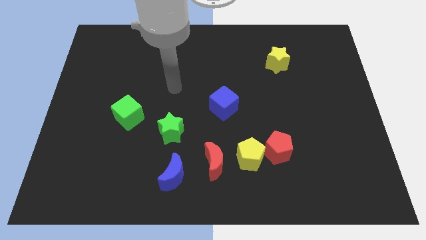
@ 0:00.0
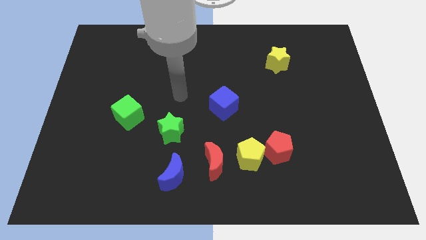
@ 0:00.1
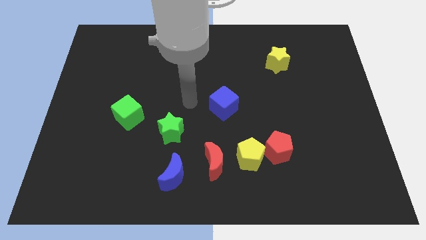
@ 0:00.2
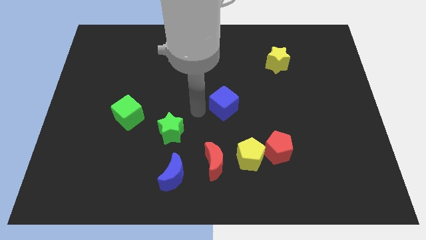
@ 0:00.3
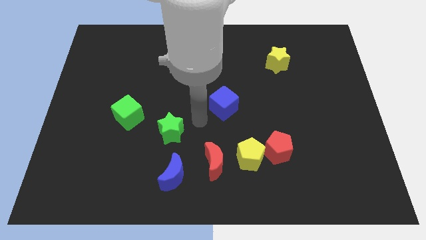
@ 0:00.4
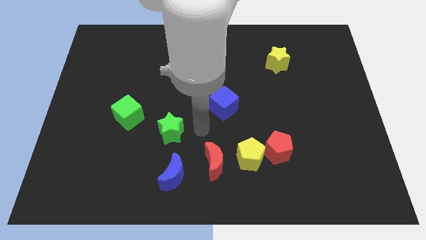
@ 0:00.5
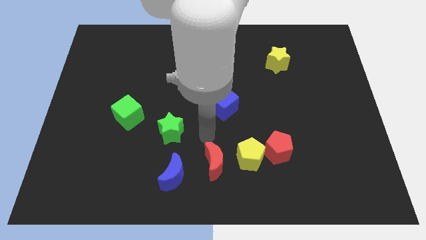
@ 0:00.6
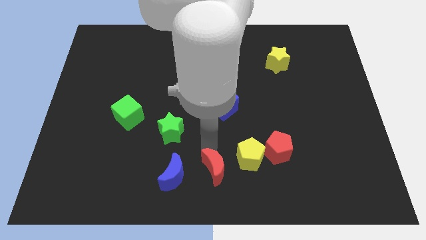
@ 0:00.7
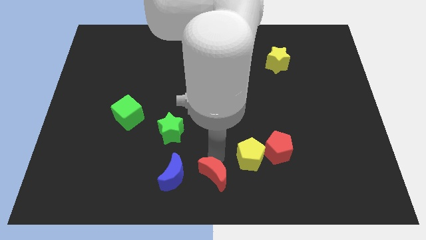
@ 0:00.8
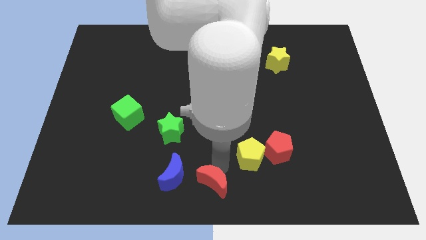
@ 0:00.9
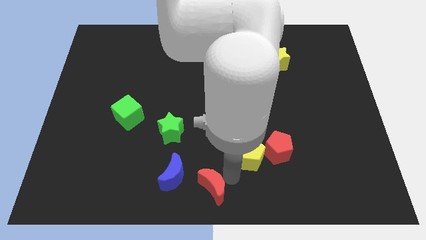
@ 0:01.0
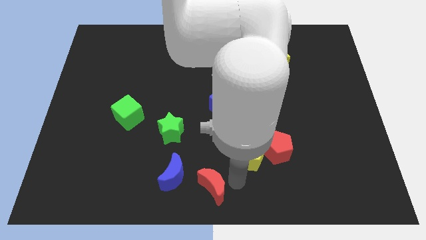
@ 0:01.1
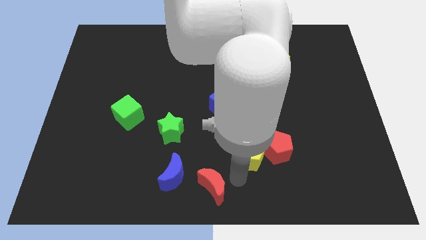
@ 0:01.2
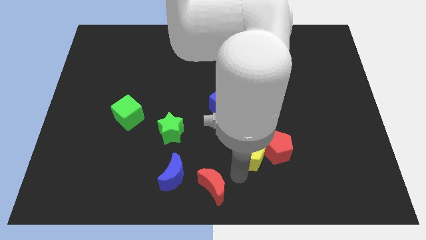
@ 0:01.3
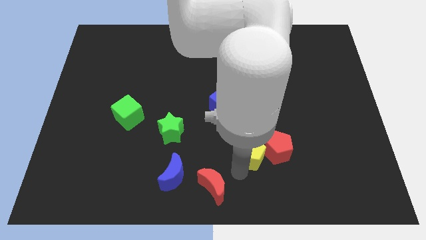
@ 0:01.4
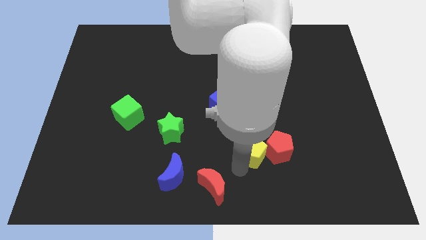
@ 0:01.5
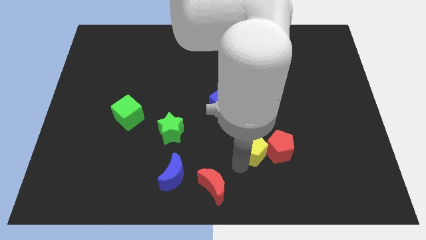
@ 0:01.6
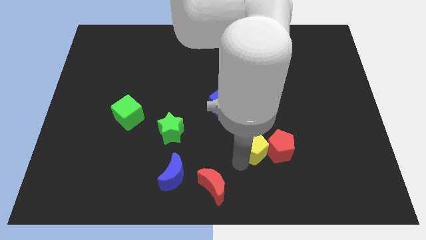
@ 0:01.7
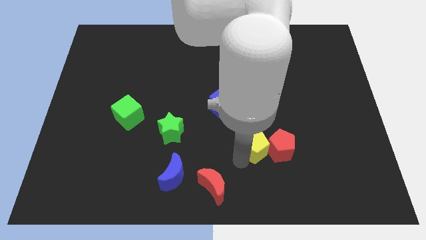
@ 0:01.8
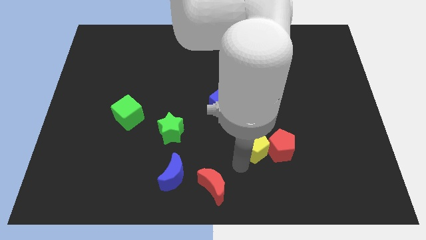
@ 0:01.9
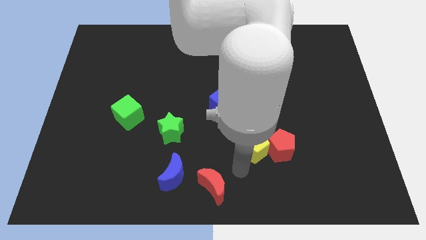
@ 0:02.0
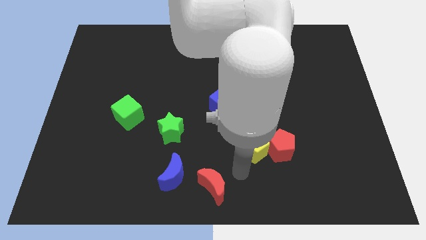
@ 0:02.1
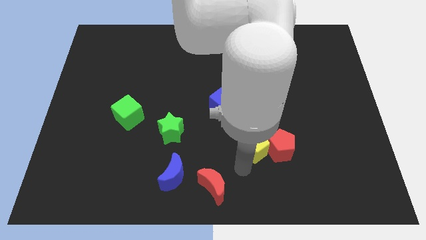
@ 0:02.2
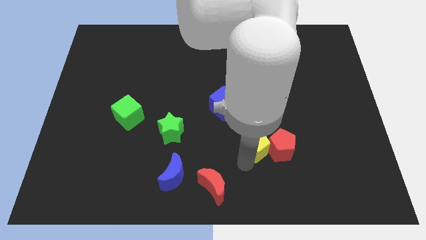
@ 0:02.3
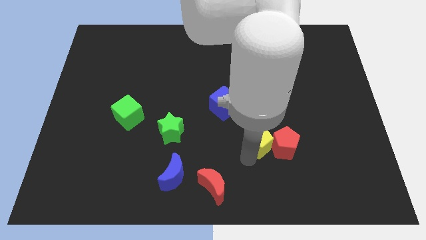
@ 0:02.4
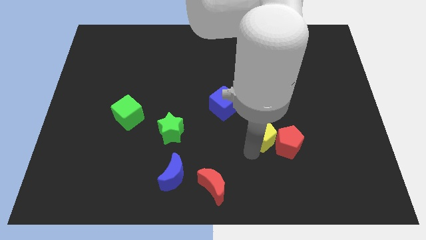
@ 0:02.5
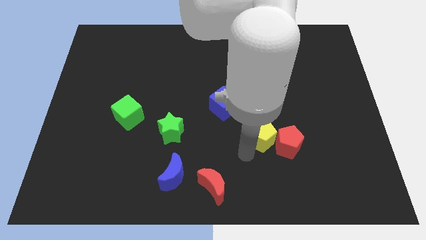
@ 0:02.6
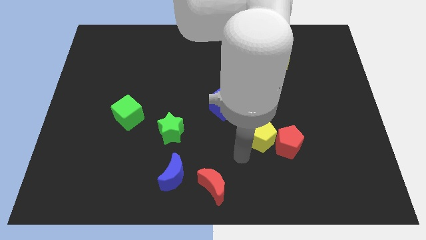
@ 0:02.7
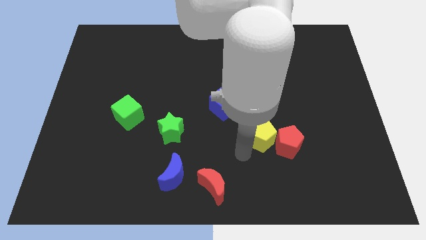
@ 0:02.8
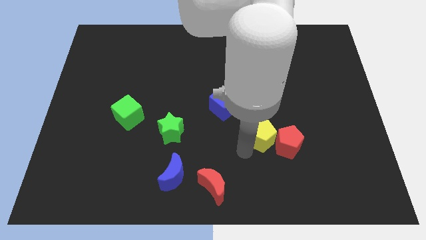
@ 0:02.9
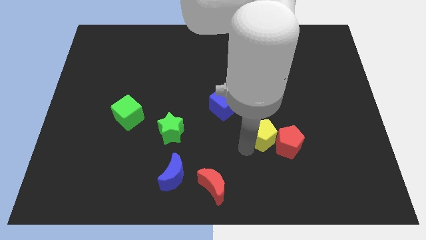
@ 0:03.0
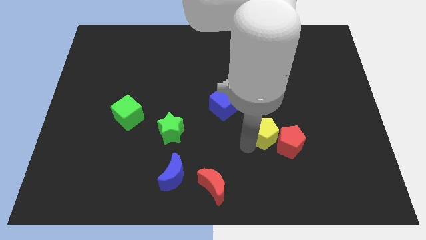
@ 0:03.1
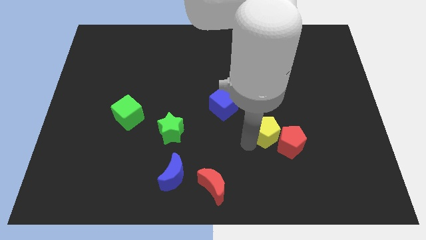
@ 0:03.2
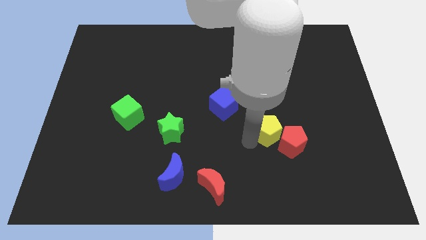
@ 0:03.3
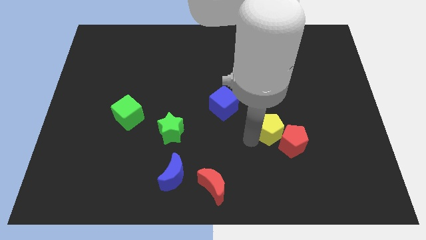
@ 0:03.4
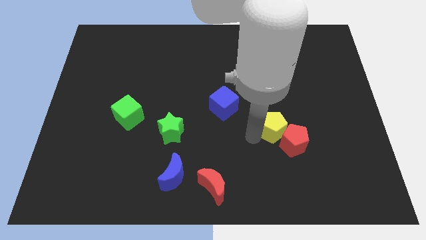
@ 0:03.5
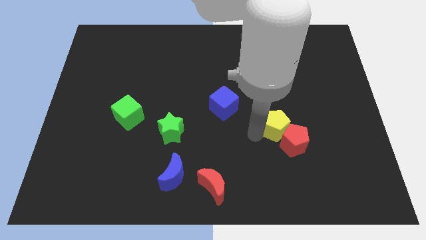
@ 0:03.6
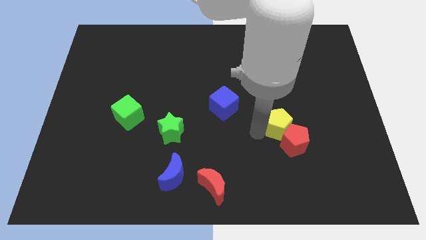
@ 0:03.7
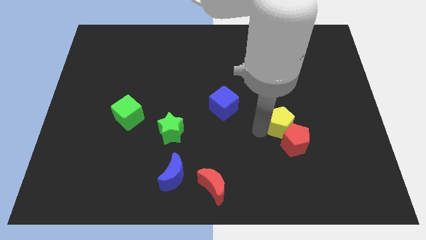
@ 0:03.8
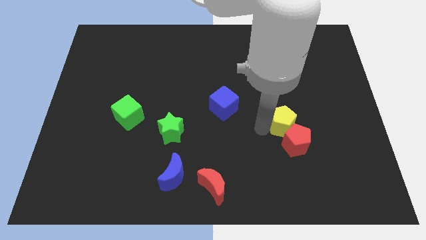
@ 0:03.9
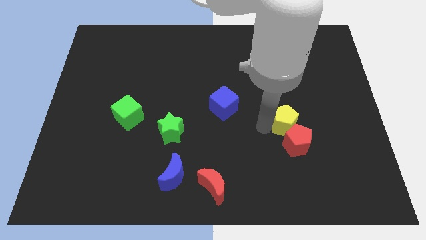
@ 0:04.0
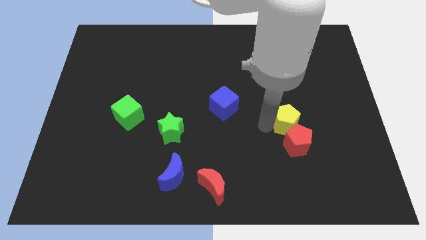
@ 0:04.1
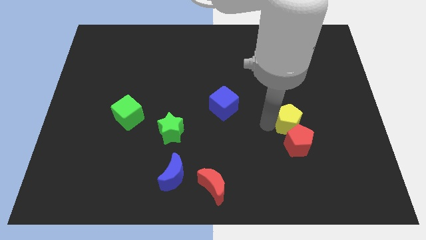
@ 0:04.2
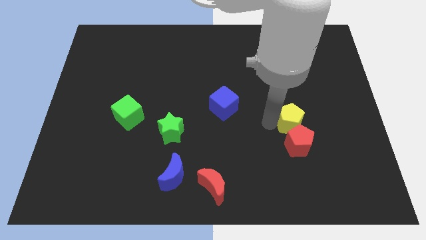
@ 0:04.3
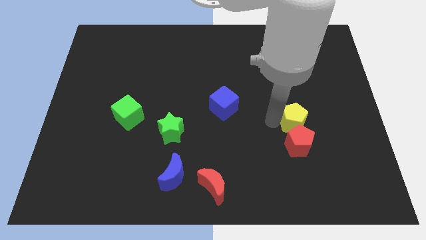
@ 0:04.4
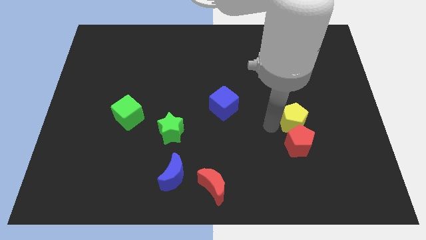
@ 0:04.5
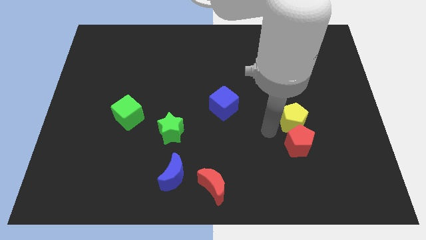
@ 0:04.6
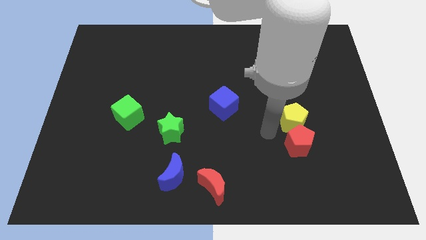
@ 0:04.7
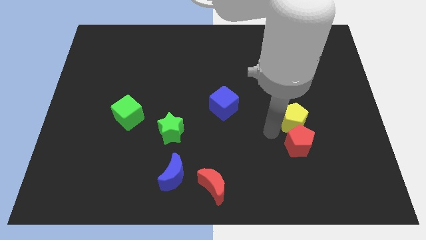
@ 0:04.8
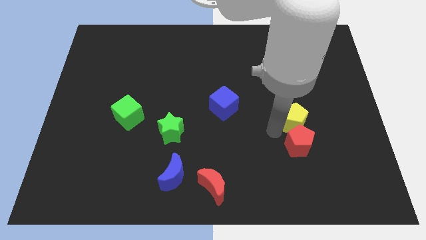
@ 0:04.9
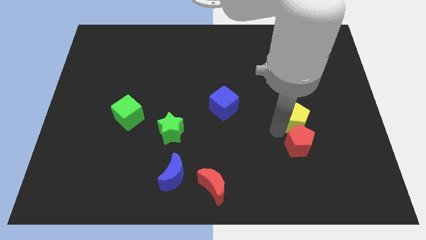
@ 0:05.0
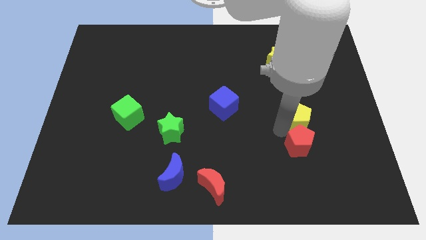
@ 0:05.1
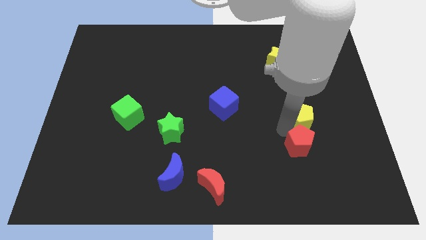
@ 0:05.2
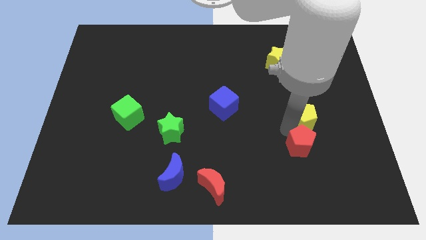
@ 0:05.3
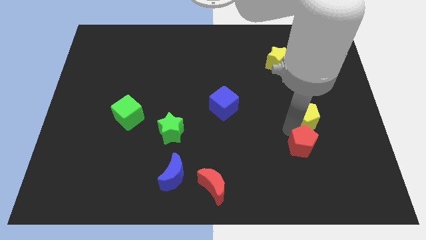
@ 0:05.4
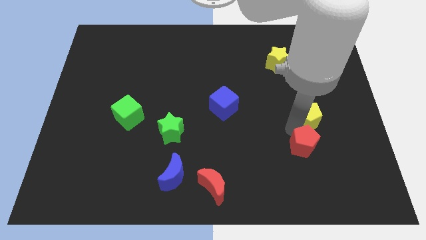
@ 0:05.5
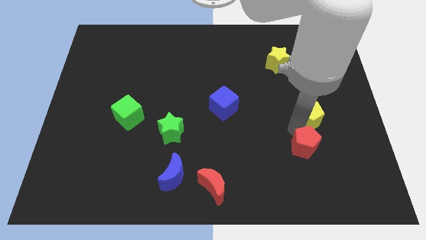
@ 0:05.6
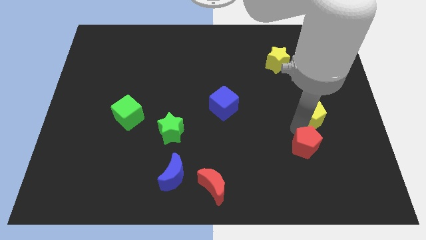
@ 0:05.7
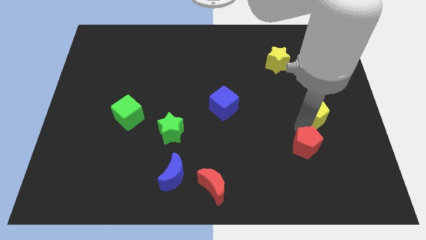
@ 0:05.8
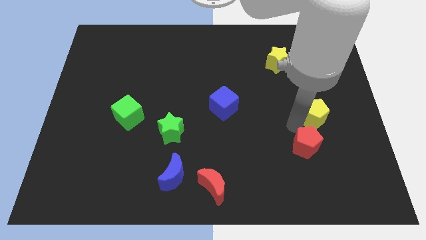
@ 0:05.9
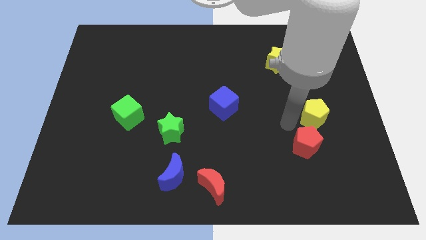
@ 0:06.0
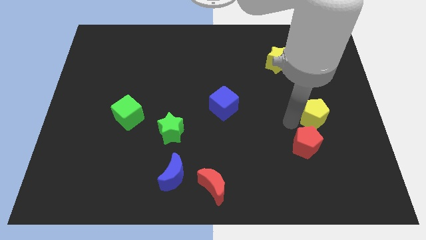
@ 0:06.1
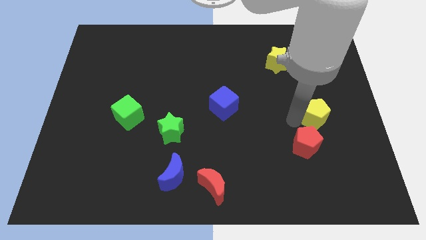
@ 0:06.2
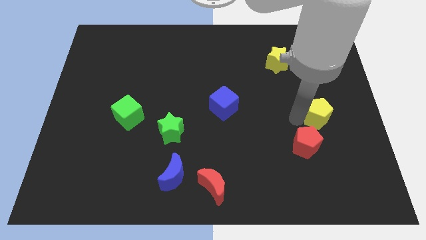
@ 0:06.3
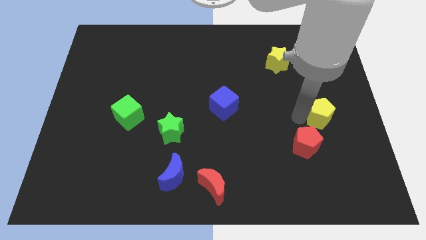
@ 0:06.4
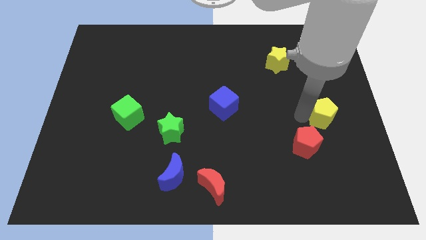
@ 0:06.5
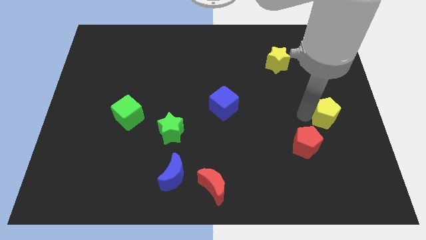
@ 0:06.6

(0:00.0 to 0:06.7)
push the yellow pentagon to the center right
